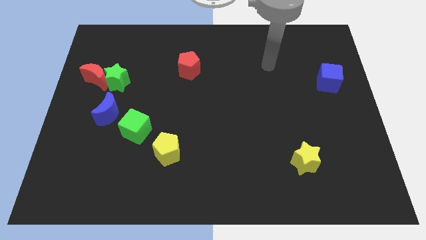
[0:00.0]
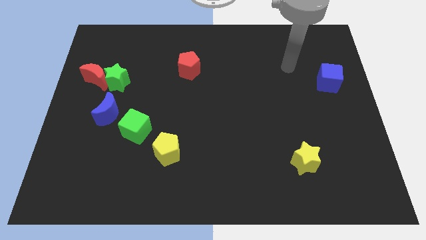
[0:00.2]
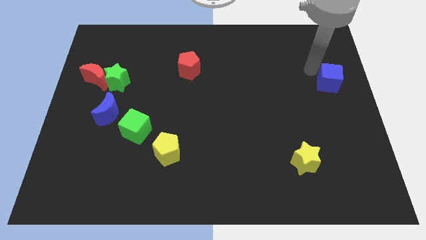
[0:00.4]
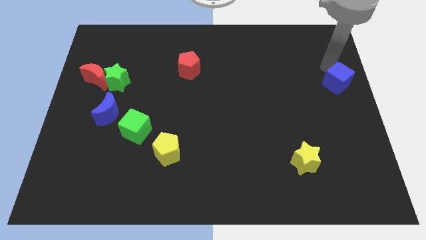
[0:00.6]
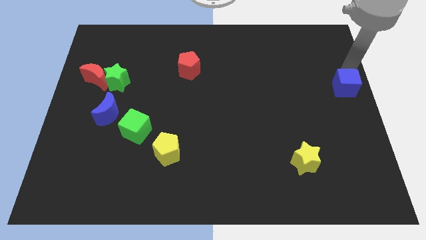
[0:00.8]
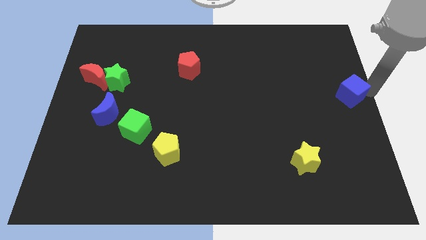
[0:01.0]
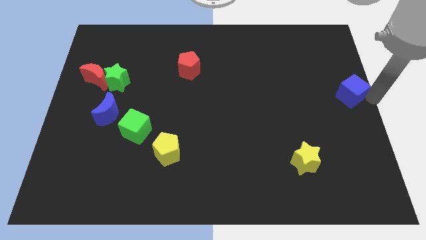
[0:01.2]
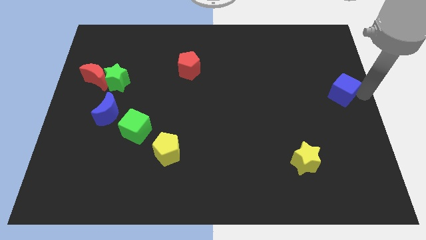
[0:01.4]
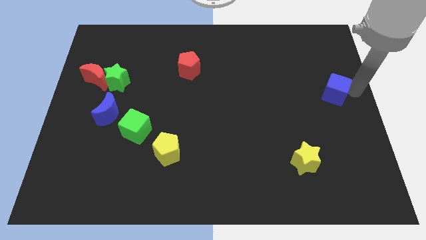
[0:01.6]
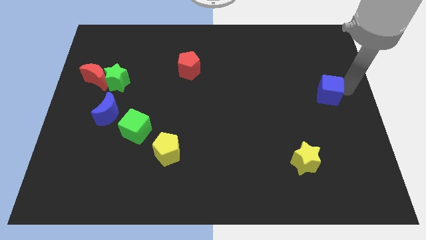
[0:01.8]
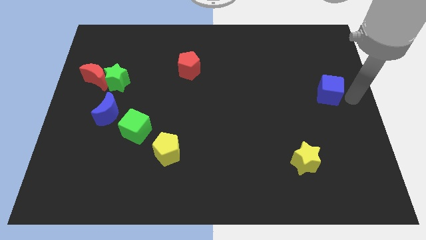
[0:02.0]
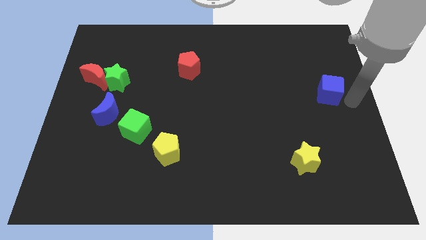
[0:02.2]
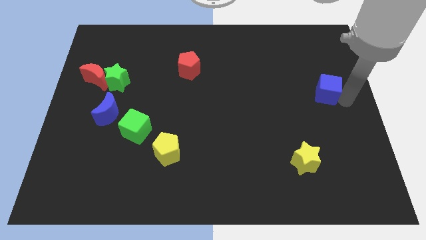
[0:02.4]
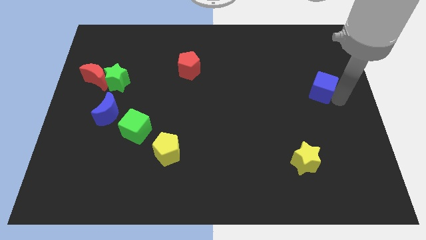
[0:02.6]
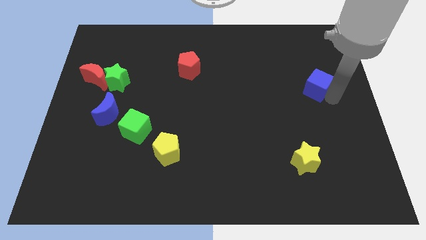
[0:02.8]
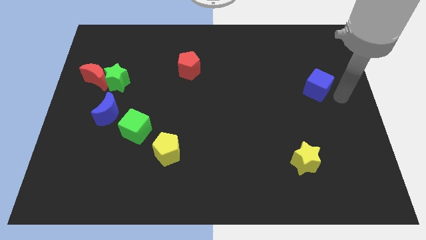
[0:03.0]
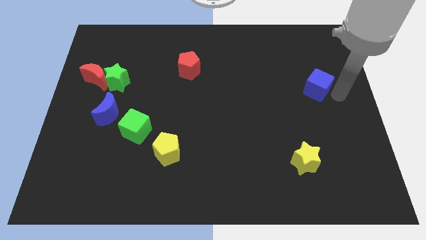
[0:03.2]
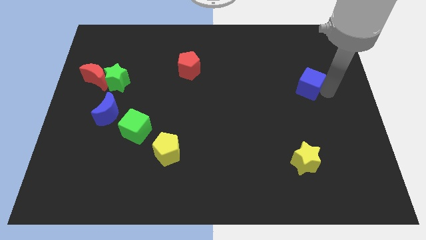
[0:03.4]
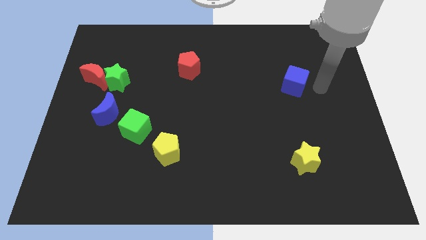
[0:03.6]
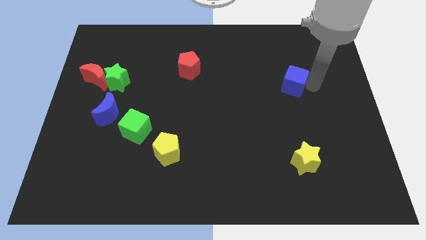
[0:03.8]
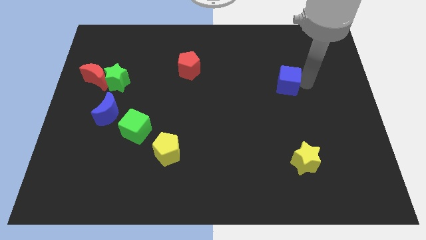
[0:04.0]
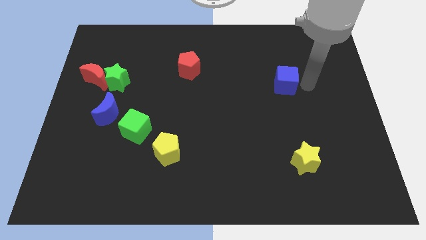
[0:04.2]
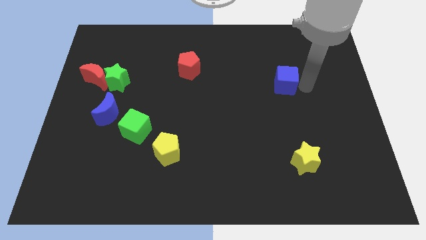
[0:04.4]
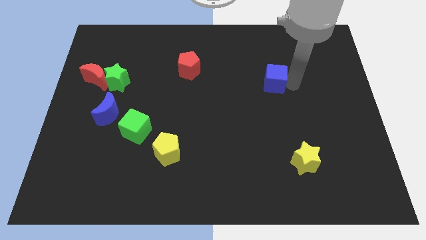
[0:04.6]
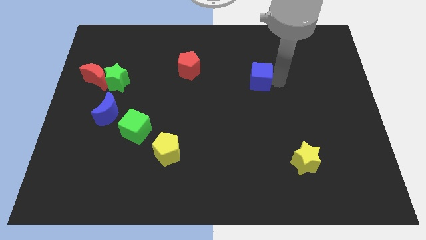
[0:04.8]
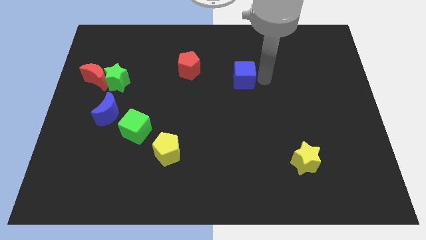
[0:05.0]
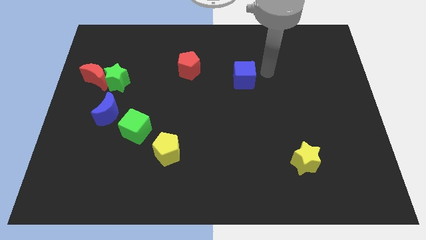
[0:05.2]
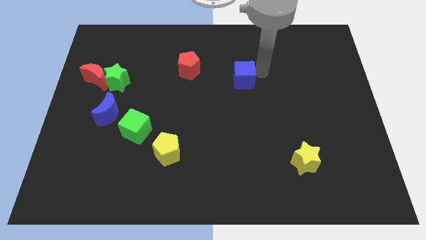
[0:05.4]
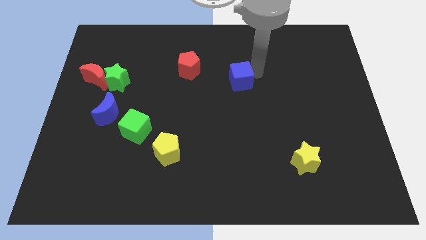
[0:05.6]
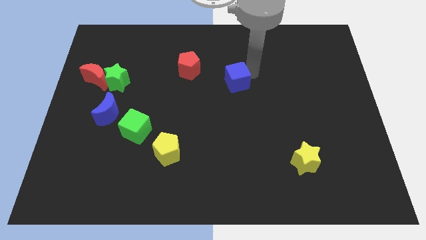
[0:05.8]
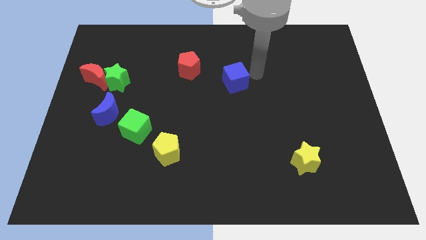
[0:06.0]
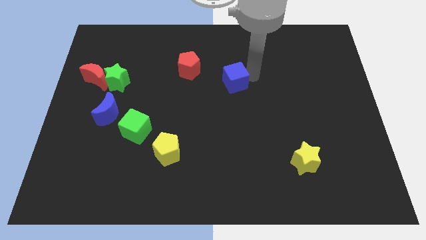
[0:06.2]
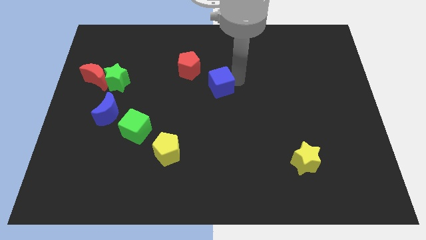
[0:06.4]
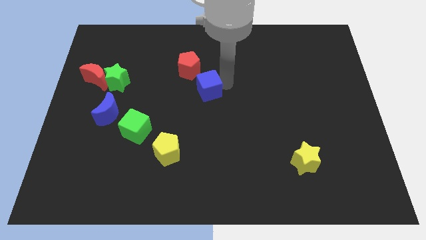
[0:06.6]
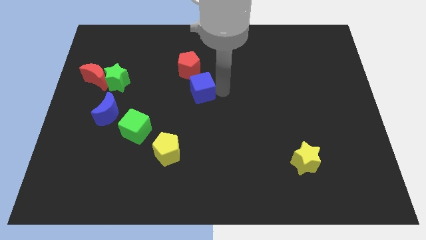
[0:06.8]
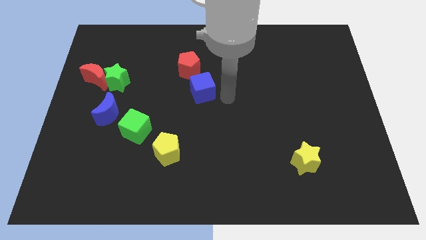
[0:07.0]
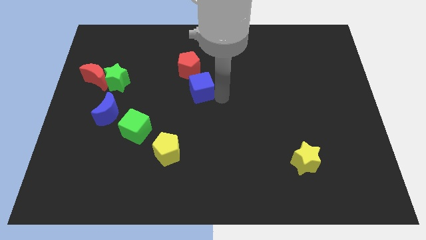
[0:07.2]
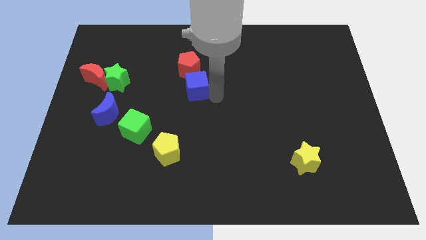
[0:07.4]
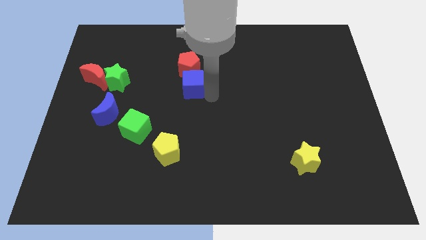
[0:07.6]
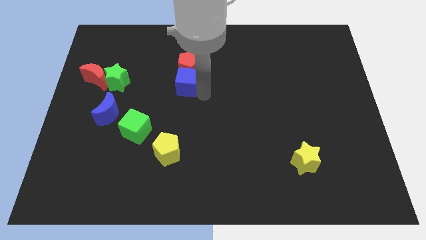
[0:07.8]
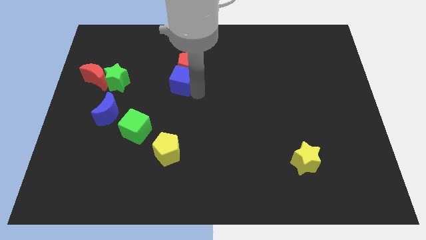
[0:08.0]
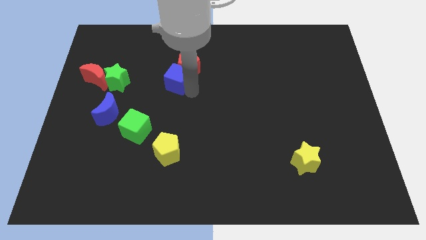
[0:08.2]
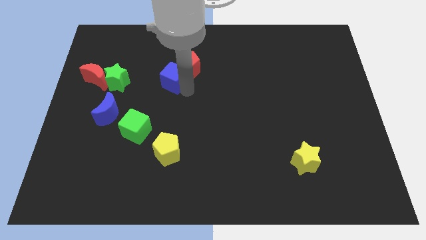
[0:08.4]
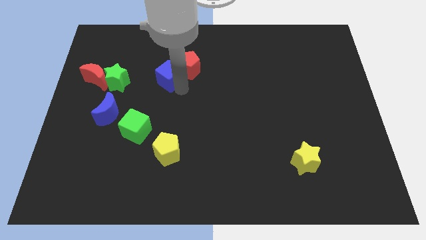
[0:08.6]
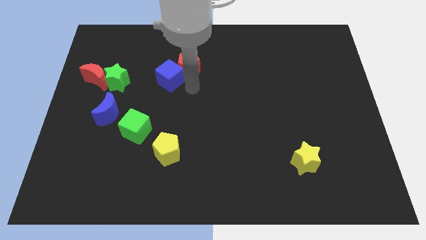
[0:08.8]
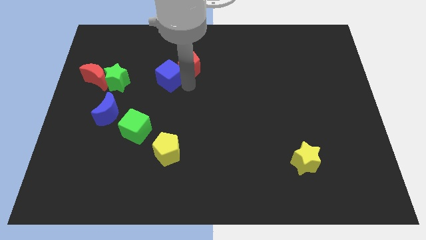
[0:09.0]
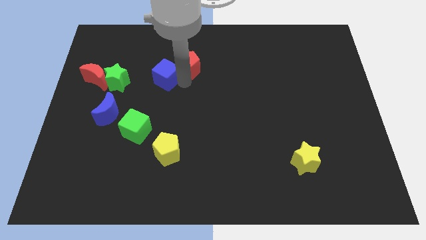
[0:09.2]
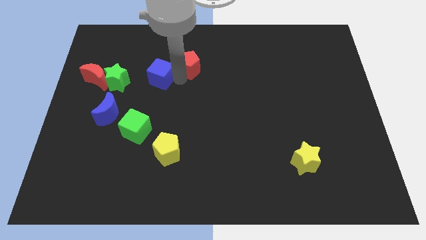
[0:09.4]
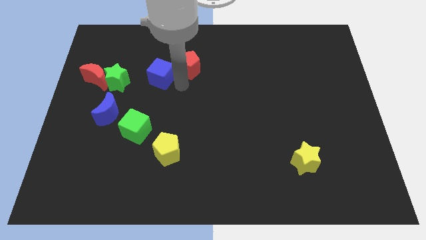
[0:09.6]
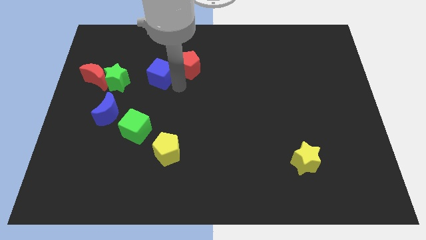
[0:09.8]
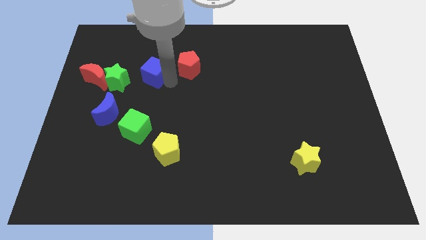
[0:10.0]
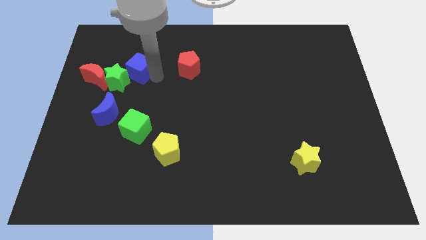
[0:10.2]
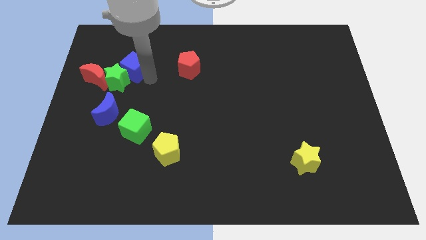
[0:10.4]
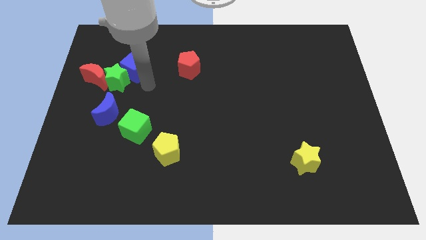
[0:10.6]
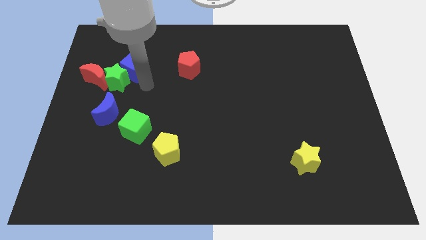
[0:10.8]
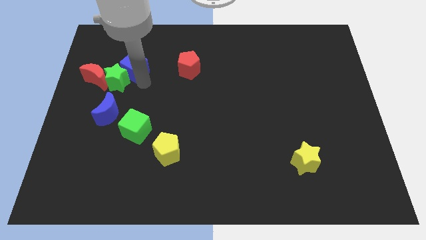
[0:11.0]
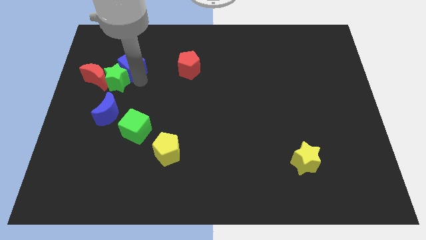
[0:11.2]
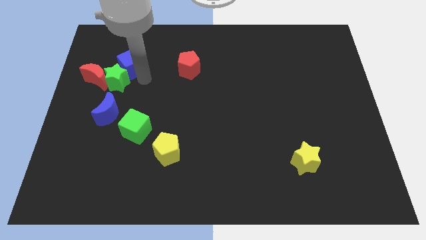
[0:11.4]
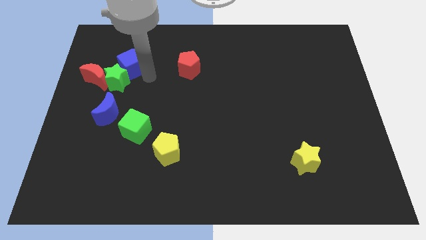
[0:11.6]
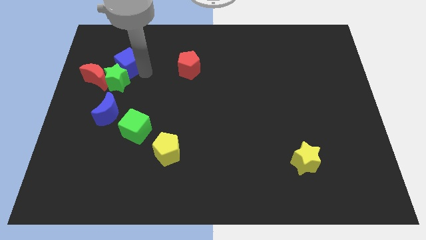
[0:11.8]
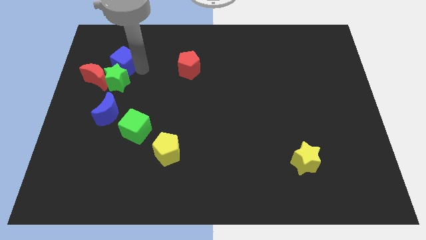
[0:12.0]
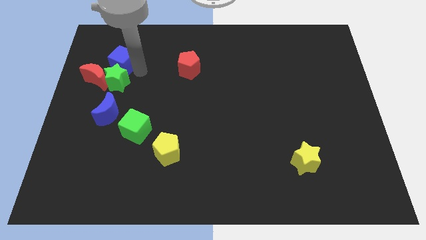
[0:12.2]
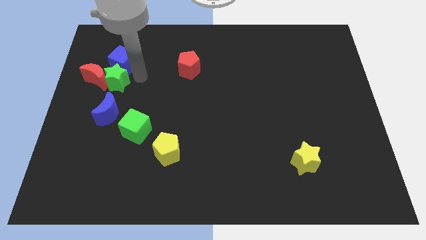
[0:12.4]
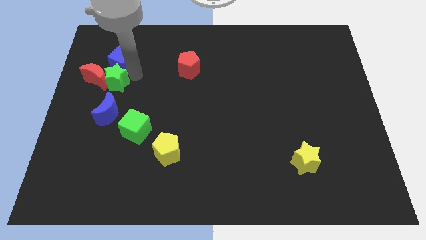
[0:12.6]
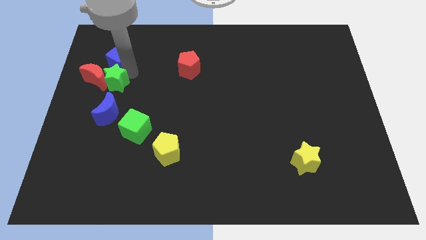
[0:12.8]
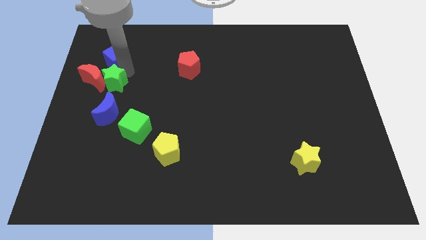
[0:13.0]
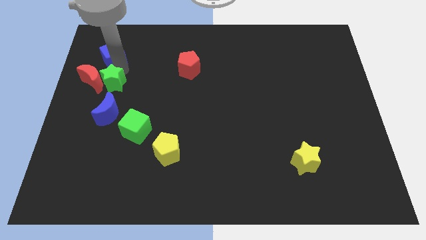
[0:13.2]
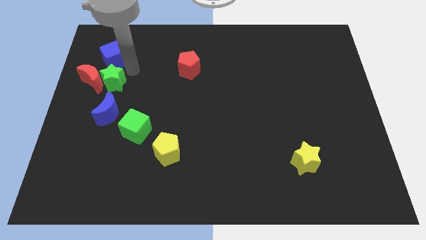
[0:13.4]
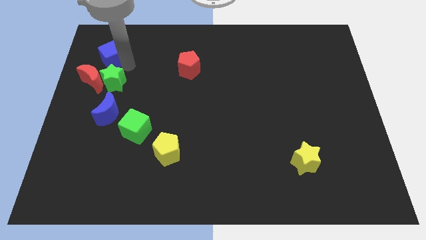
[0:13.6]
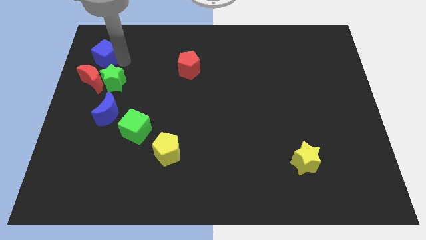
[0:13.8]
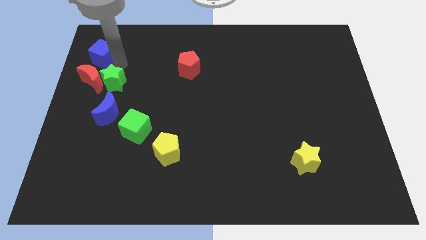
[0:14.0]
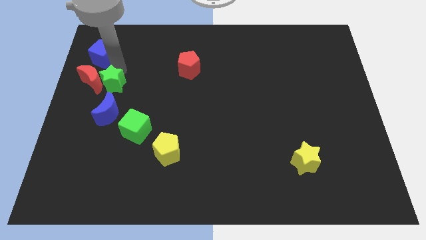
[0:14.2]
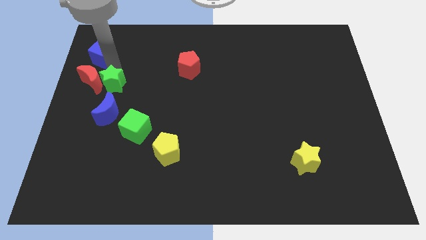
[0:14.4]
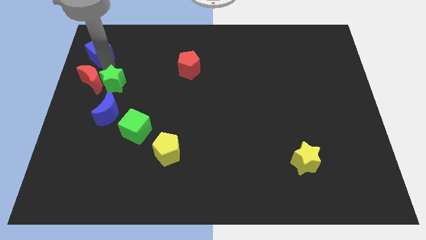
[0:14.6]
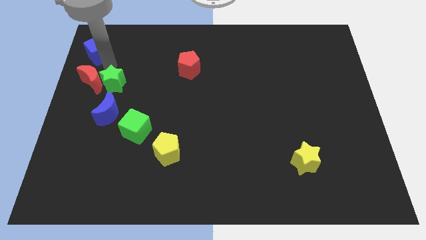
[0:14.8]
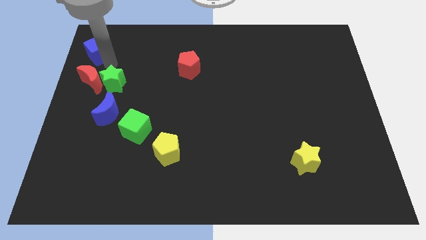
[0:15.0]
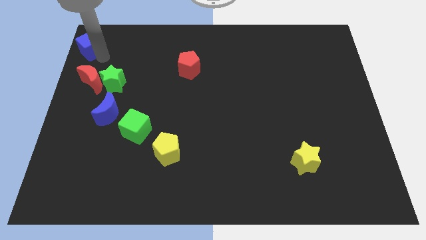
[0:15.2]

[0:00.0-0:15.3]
put the blue cube to the top left corner
